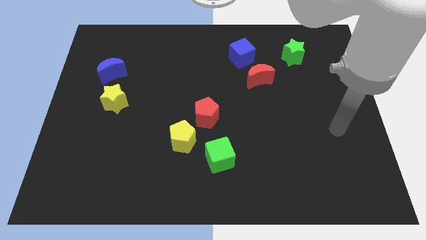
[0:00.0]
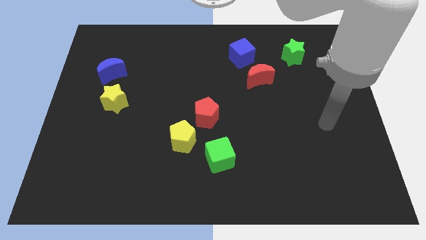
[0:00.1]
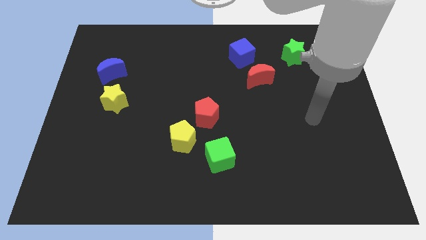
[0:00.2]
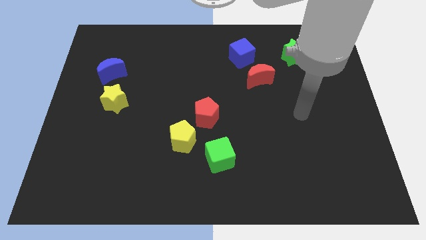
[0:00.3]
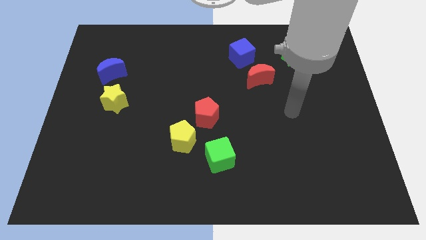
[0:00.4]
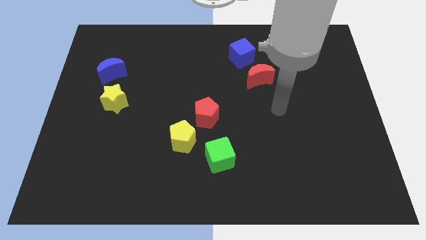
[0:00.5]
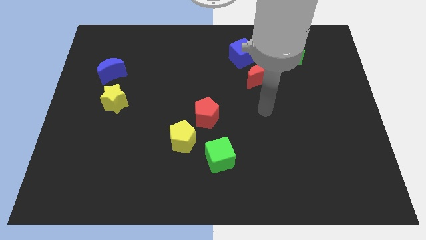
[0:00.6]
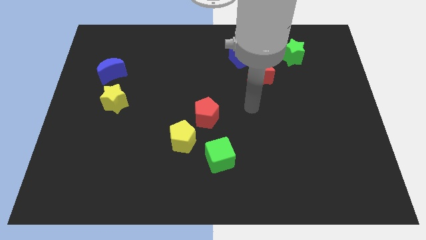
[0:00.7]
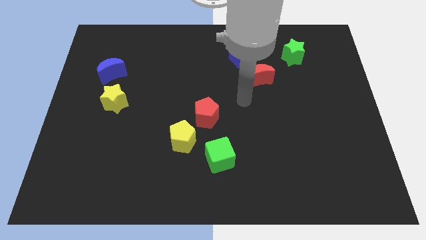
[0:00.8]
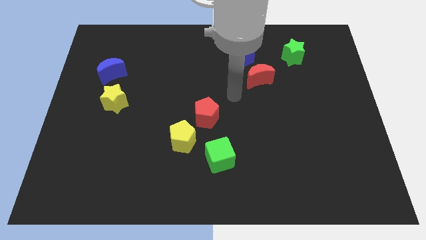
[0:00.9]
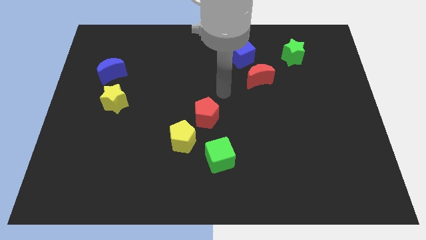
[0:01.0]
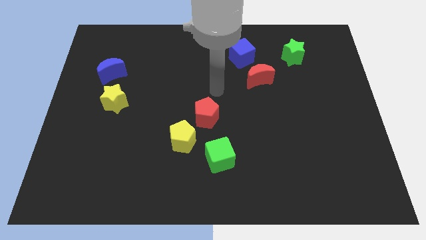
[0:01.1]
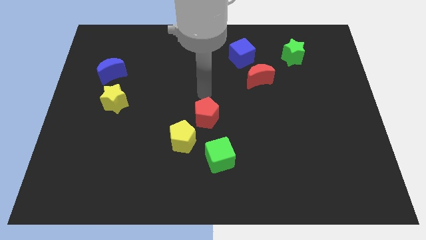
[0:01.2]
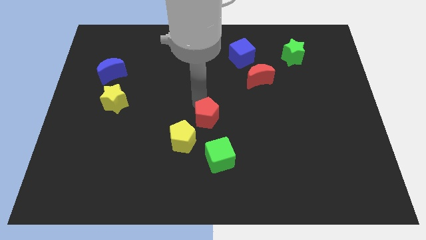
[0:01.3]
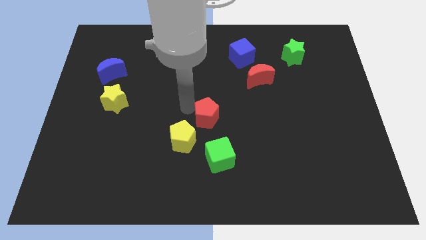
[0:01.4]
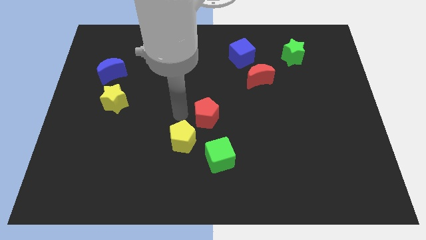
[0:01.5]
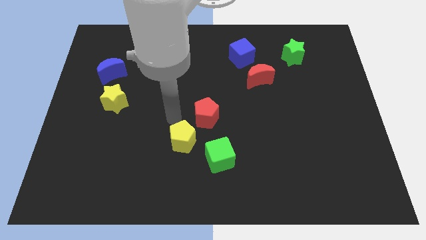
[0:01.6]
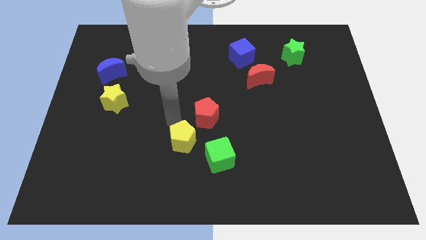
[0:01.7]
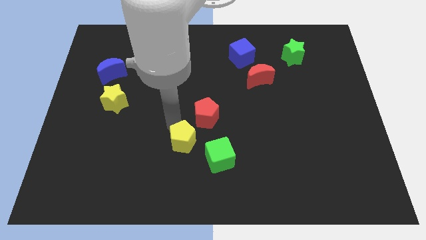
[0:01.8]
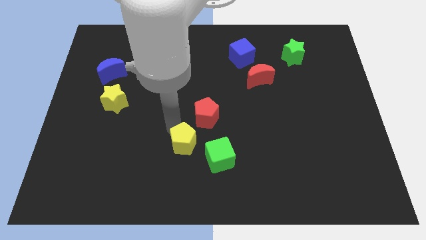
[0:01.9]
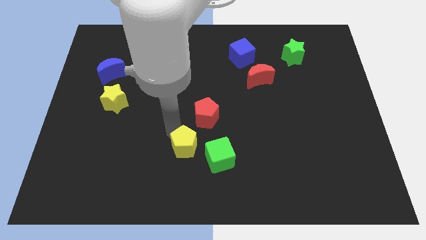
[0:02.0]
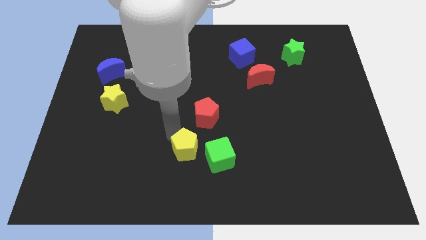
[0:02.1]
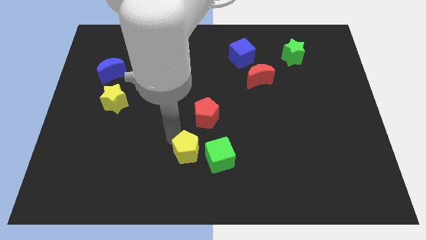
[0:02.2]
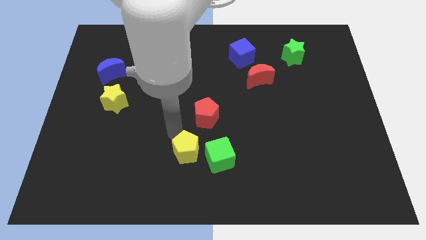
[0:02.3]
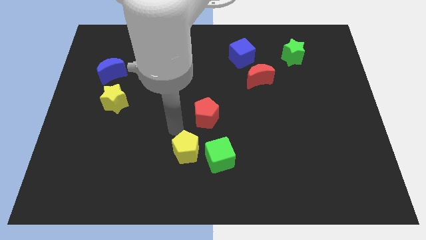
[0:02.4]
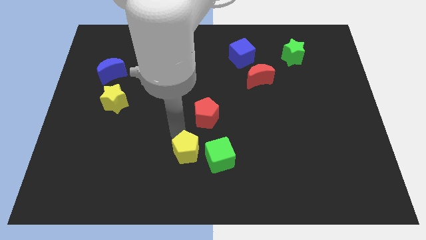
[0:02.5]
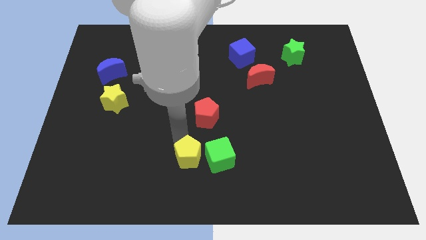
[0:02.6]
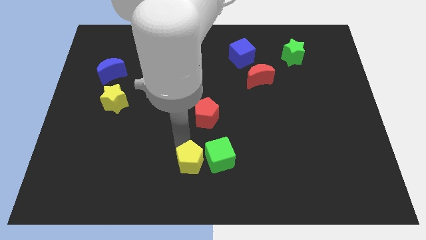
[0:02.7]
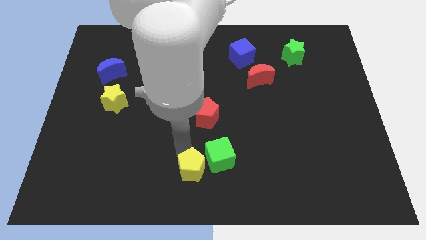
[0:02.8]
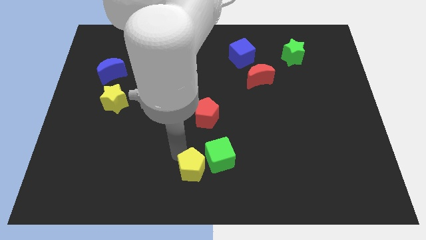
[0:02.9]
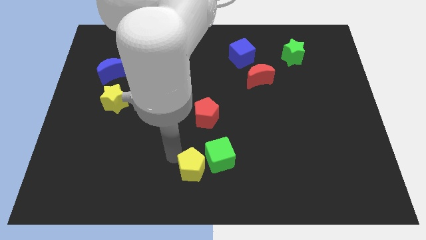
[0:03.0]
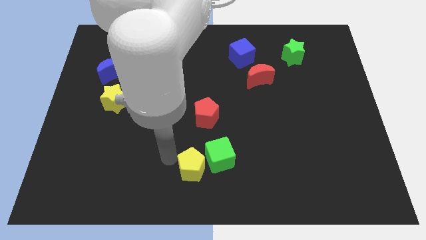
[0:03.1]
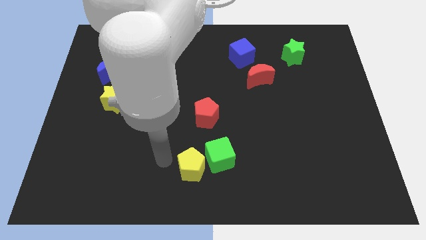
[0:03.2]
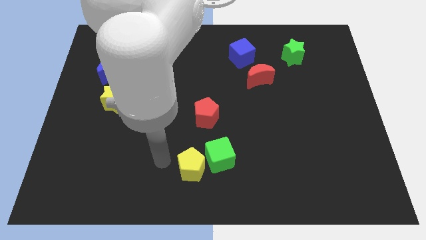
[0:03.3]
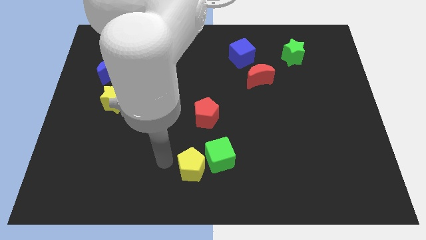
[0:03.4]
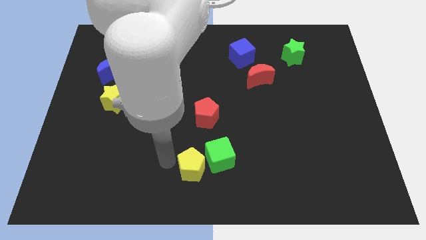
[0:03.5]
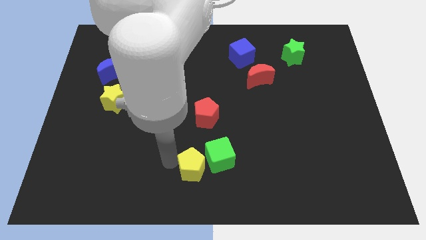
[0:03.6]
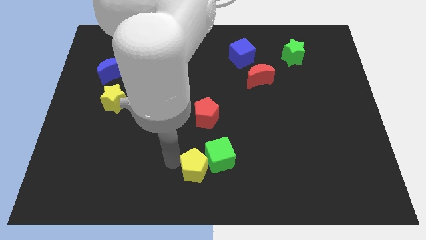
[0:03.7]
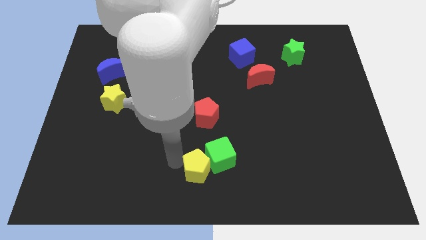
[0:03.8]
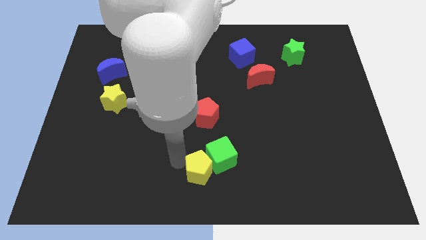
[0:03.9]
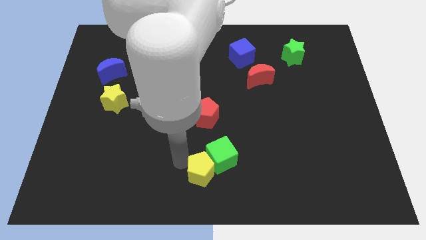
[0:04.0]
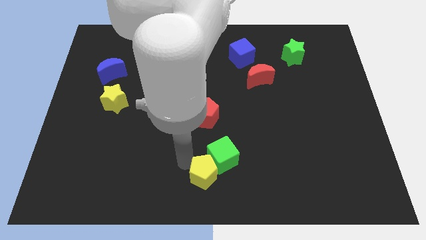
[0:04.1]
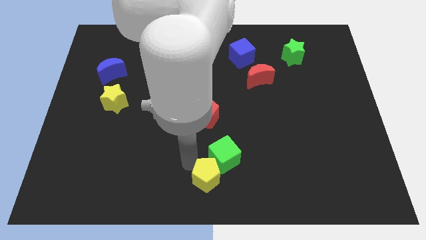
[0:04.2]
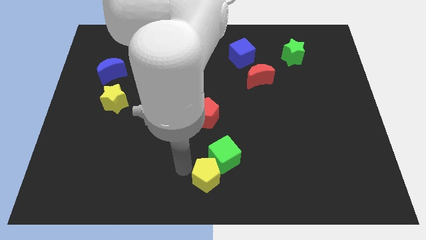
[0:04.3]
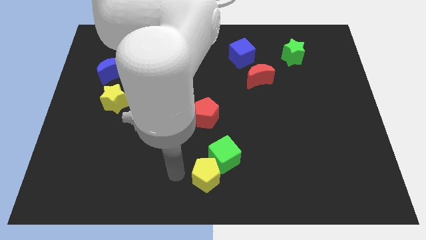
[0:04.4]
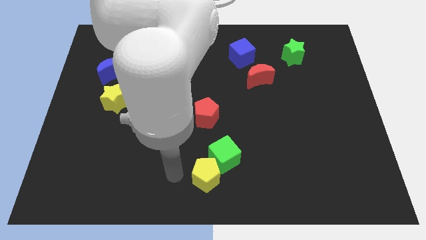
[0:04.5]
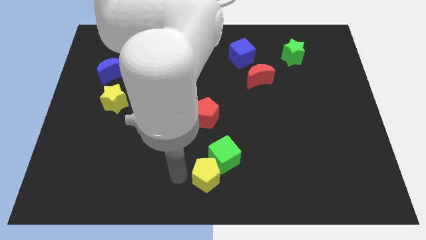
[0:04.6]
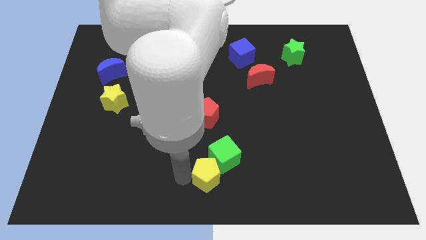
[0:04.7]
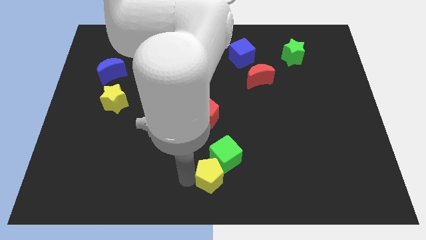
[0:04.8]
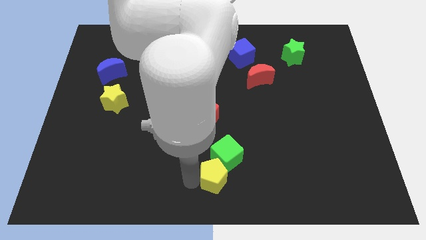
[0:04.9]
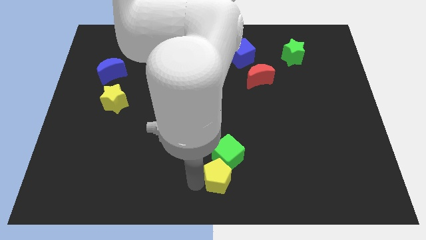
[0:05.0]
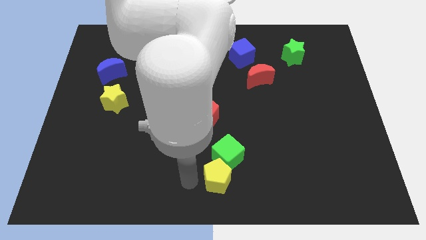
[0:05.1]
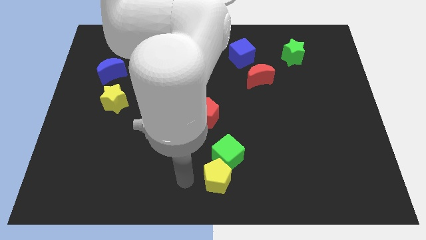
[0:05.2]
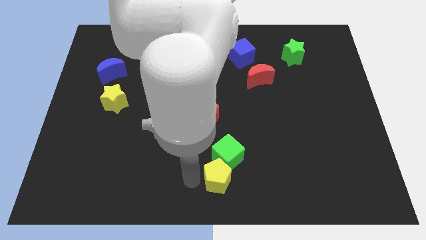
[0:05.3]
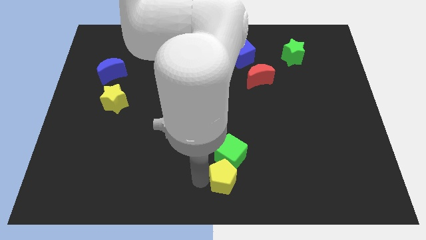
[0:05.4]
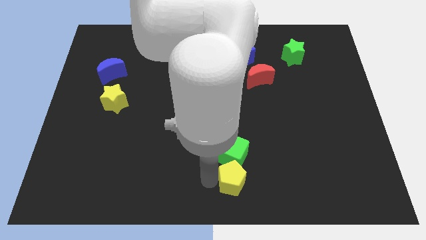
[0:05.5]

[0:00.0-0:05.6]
move the yellow pentagon to the bottom right of the green cube

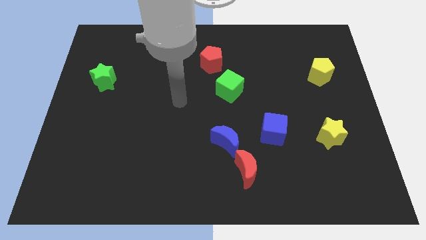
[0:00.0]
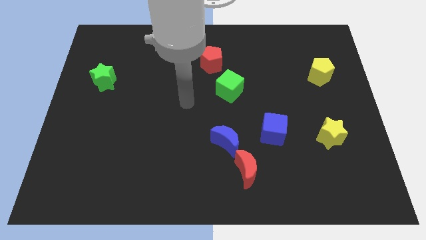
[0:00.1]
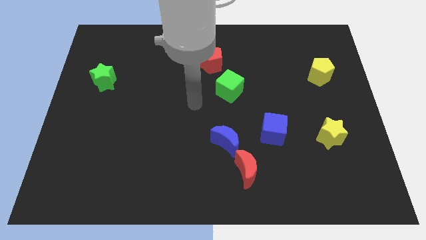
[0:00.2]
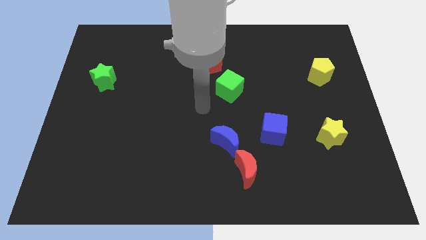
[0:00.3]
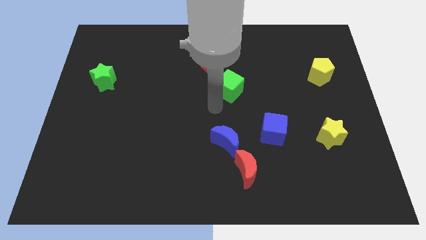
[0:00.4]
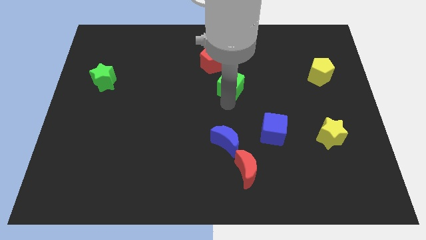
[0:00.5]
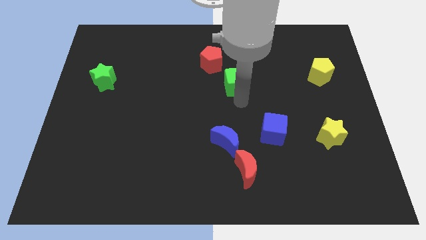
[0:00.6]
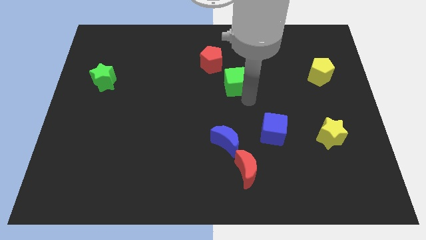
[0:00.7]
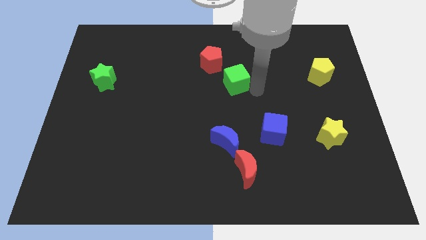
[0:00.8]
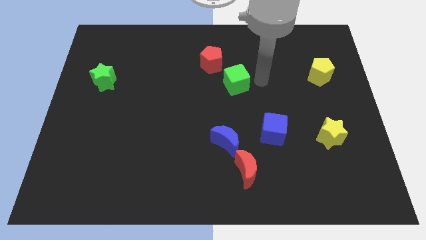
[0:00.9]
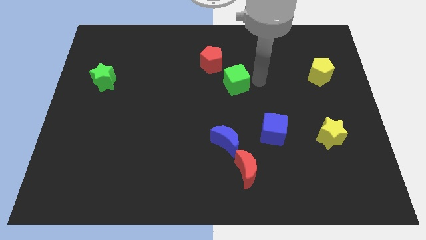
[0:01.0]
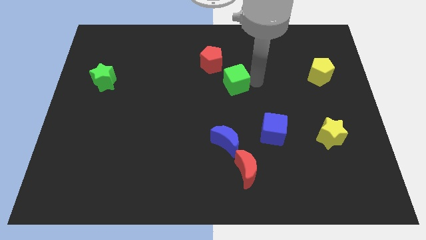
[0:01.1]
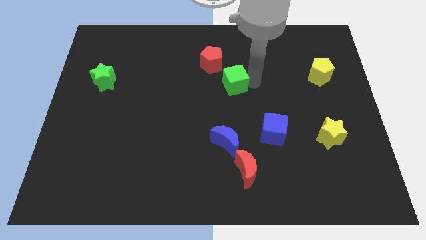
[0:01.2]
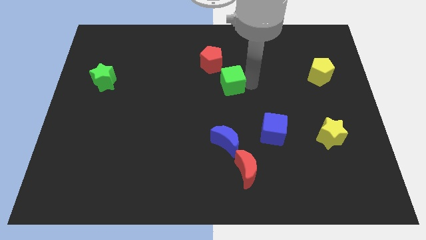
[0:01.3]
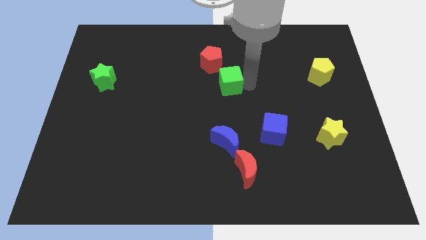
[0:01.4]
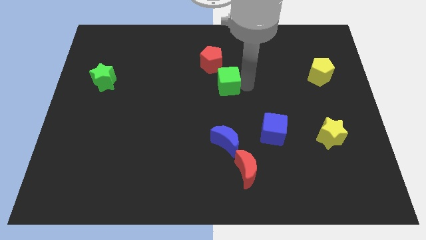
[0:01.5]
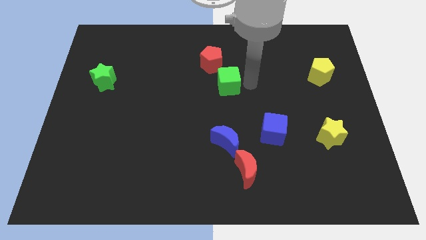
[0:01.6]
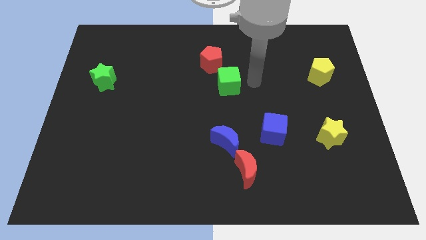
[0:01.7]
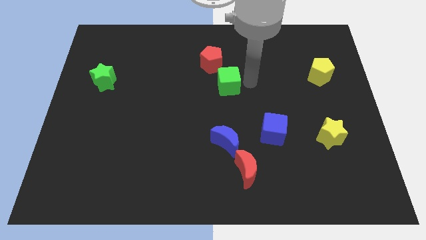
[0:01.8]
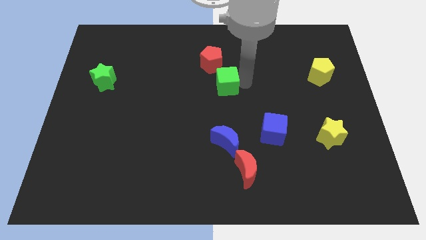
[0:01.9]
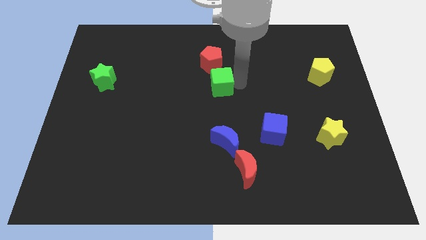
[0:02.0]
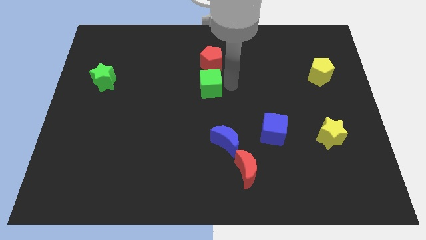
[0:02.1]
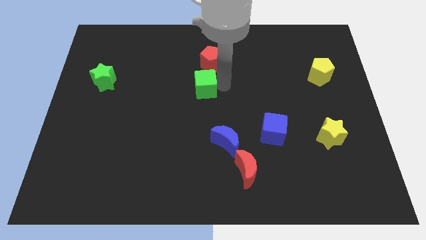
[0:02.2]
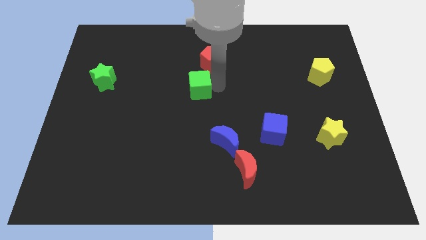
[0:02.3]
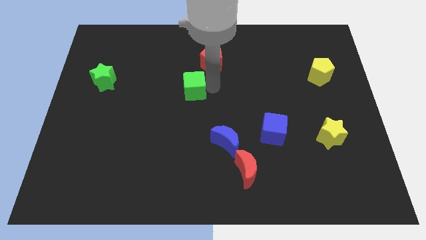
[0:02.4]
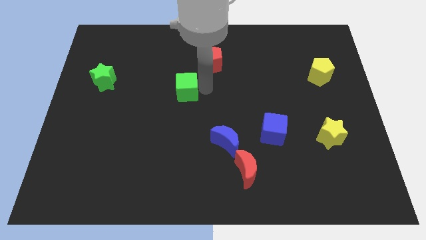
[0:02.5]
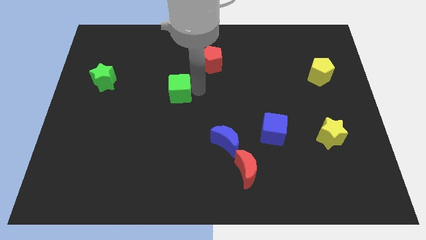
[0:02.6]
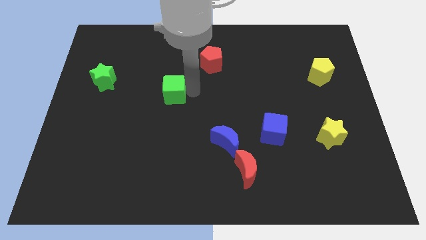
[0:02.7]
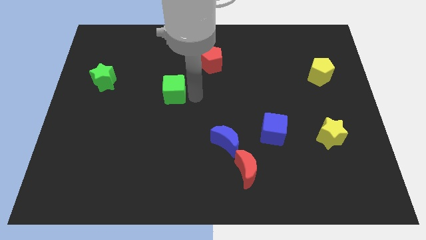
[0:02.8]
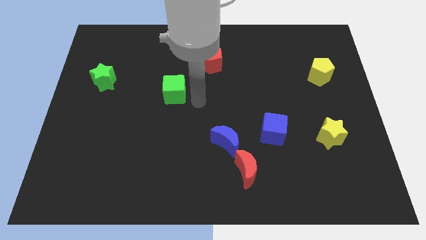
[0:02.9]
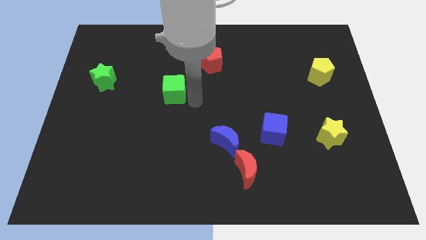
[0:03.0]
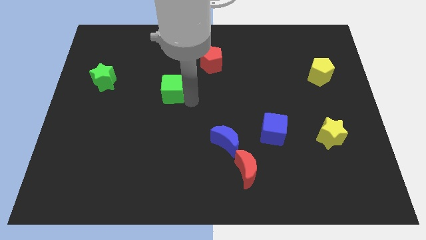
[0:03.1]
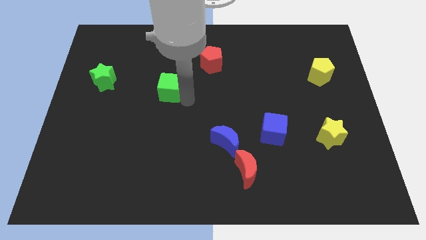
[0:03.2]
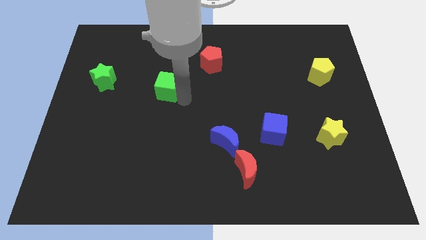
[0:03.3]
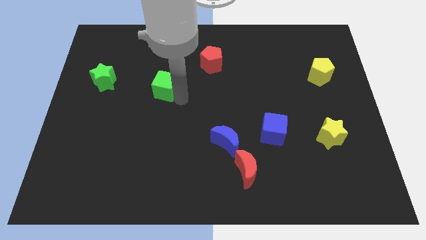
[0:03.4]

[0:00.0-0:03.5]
slide the green cube to the right side of the green star
